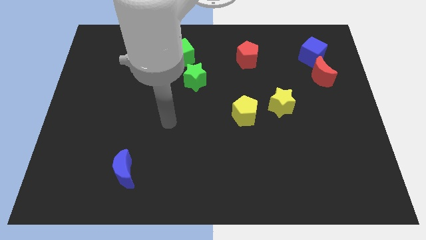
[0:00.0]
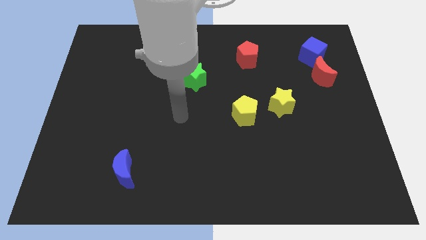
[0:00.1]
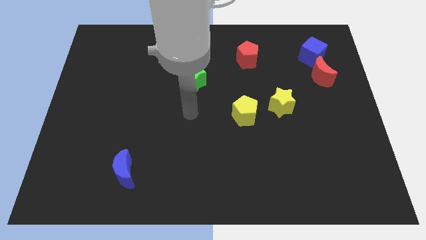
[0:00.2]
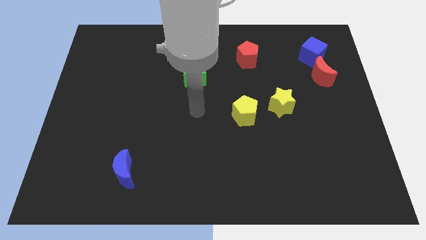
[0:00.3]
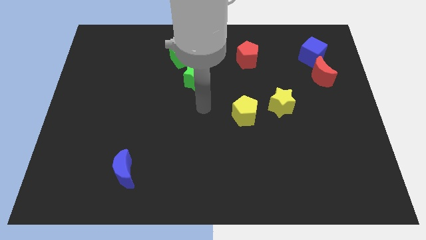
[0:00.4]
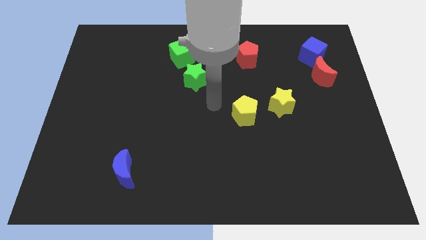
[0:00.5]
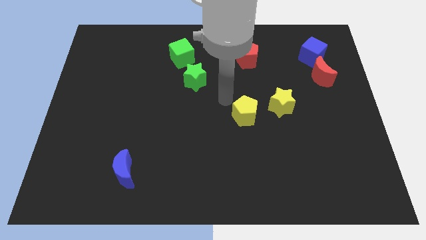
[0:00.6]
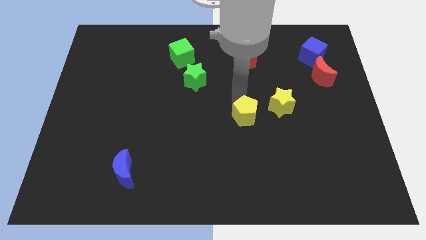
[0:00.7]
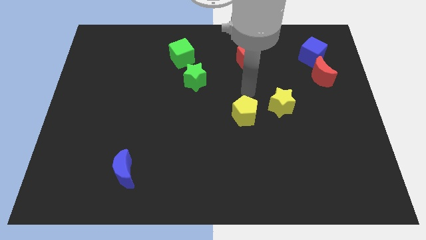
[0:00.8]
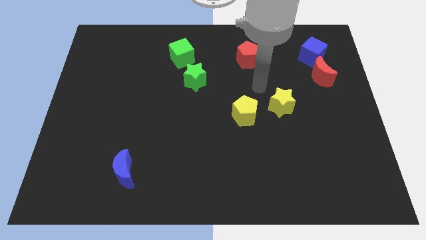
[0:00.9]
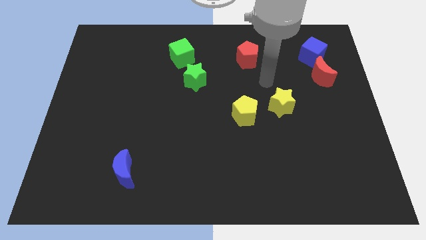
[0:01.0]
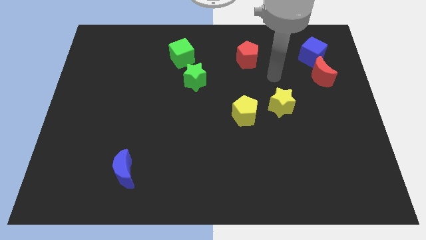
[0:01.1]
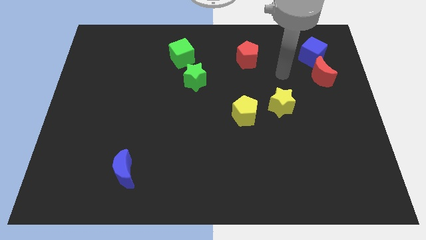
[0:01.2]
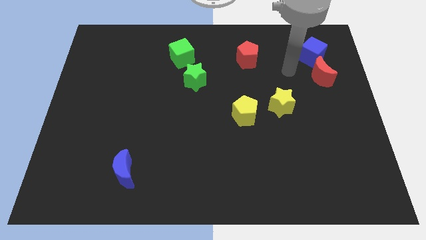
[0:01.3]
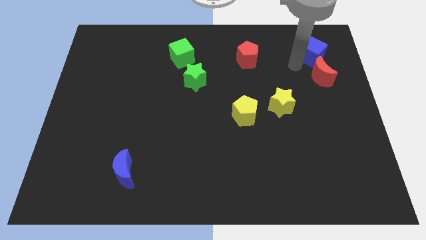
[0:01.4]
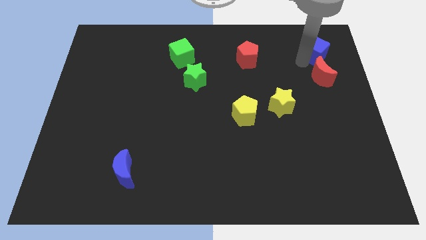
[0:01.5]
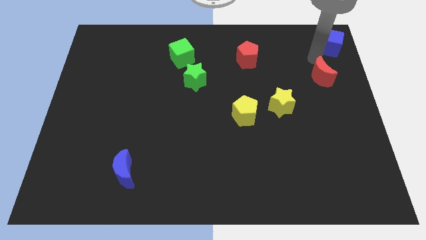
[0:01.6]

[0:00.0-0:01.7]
pull the red moon apart from the blue cube

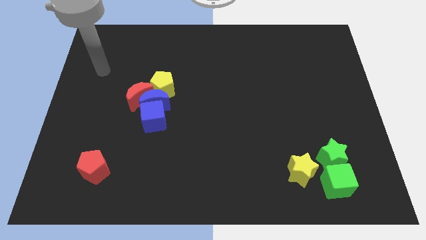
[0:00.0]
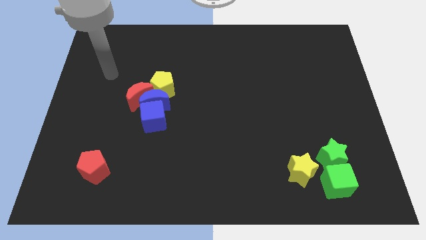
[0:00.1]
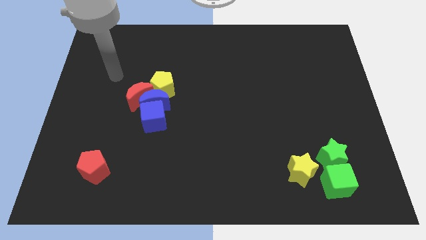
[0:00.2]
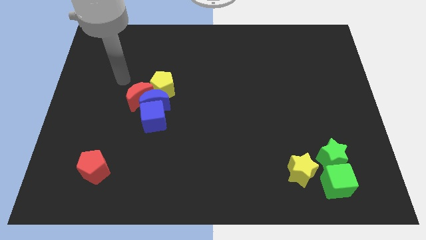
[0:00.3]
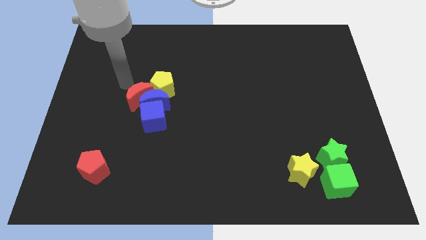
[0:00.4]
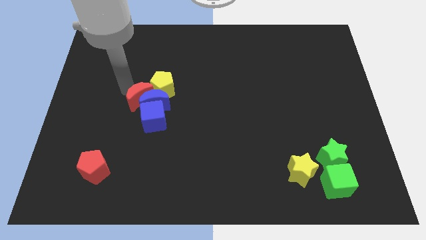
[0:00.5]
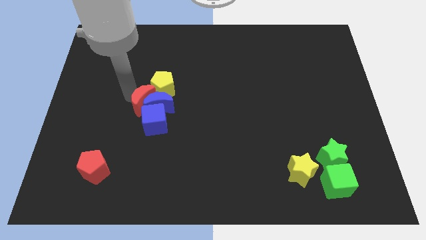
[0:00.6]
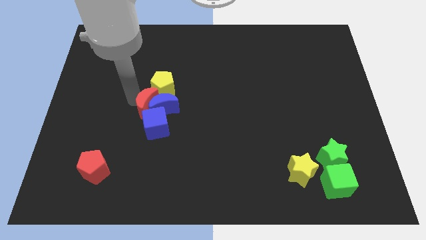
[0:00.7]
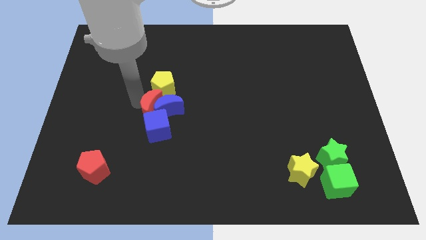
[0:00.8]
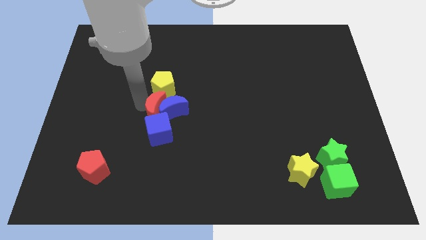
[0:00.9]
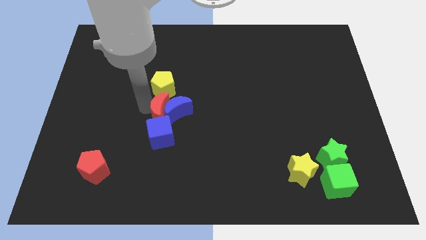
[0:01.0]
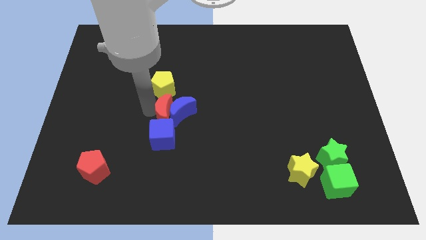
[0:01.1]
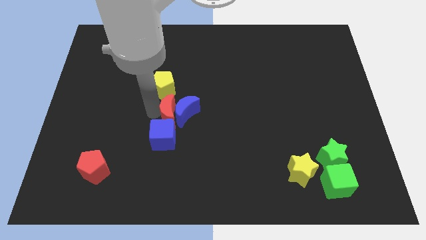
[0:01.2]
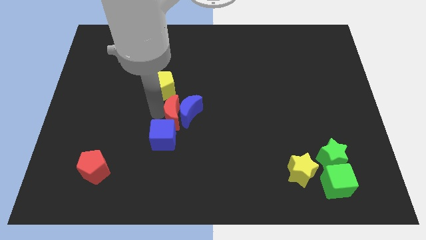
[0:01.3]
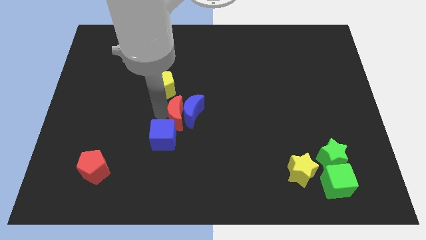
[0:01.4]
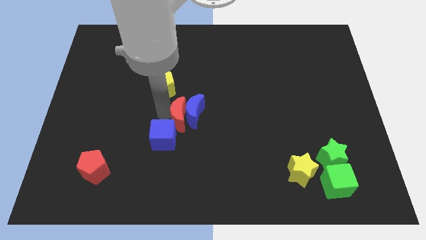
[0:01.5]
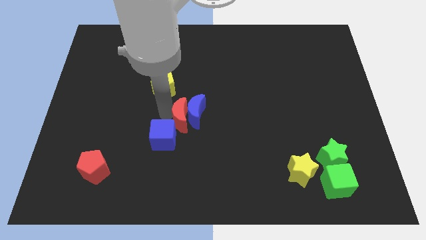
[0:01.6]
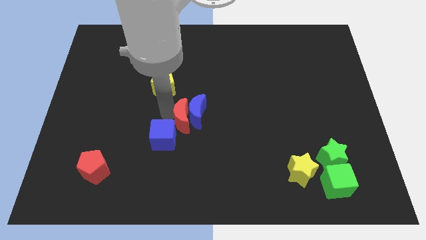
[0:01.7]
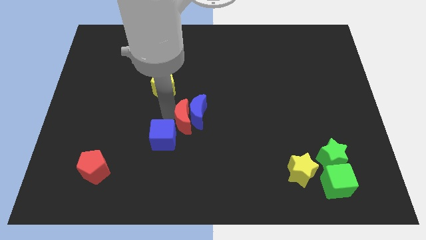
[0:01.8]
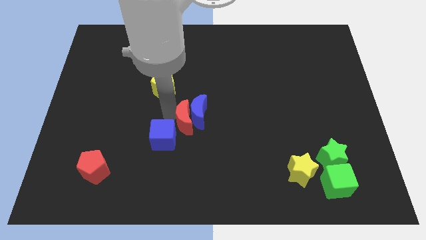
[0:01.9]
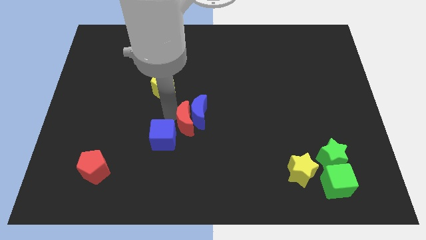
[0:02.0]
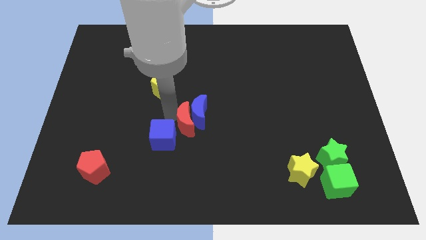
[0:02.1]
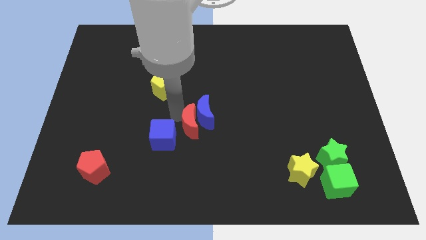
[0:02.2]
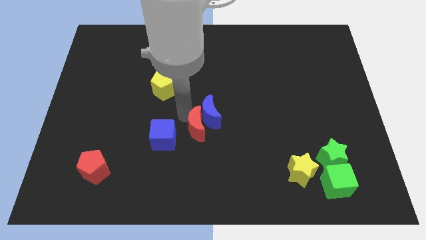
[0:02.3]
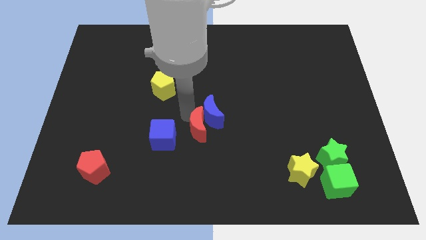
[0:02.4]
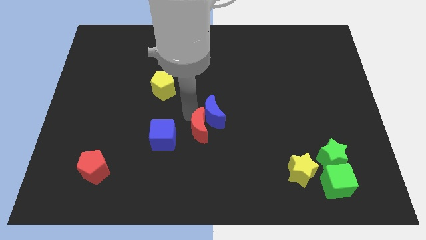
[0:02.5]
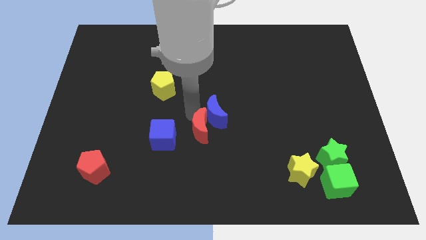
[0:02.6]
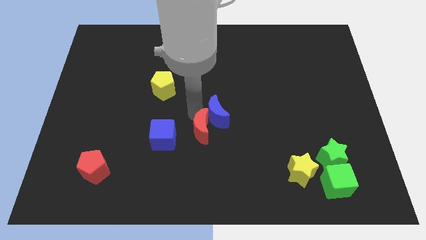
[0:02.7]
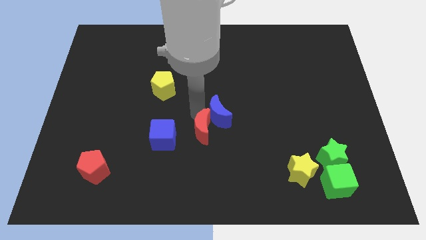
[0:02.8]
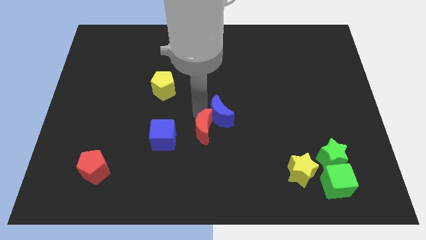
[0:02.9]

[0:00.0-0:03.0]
pull the blue moon apart from the group

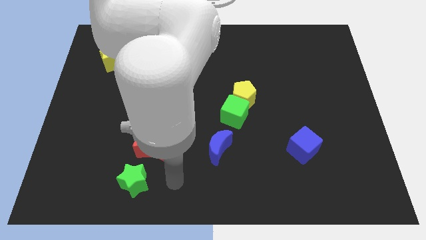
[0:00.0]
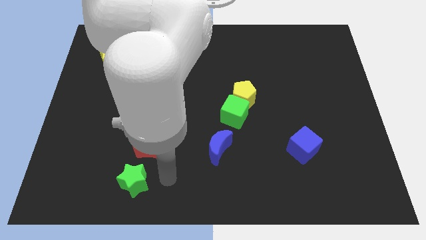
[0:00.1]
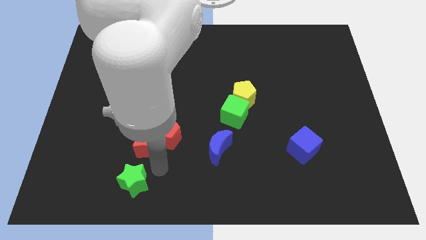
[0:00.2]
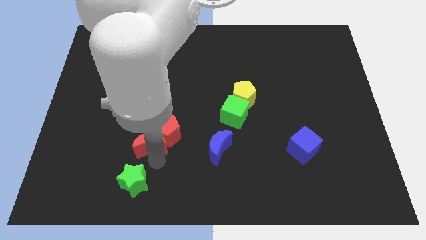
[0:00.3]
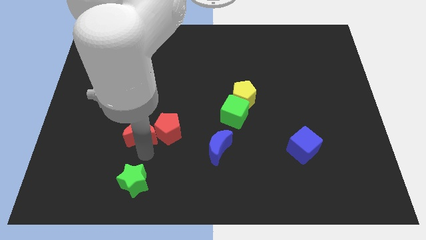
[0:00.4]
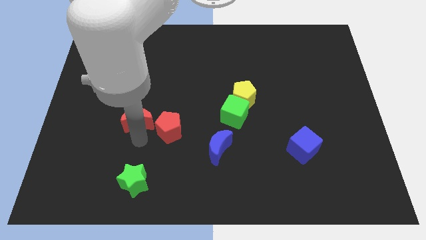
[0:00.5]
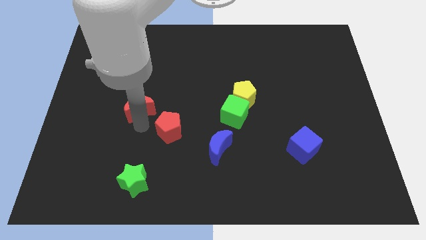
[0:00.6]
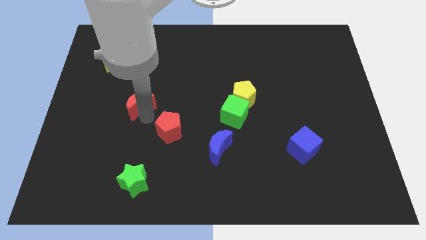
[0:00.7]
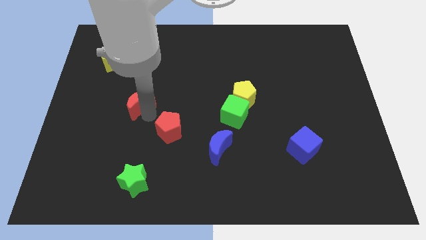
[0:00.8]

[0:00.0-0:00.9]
move the red pentagon away from the red moon

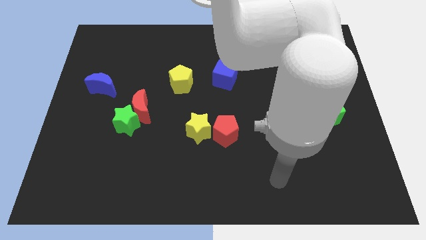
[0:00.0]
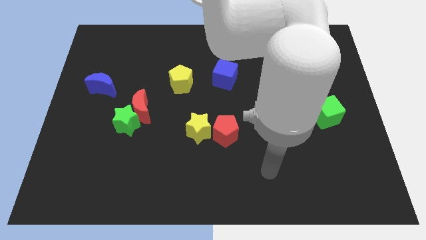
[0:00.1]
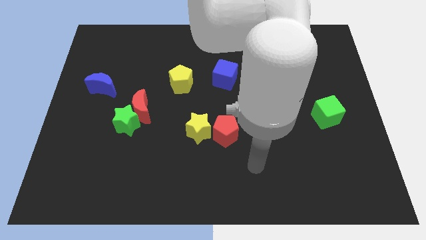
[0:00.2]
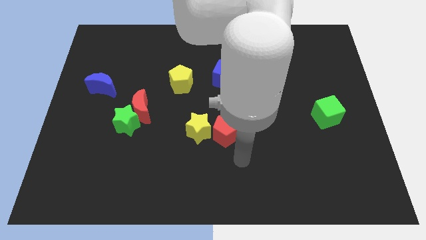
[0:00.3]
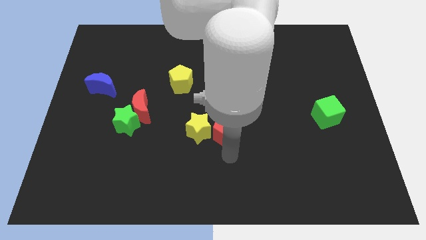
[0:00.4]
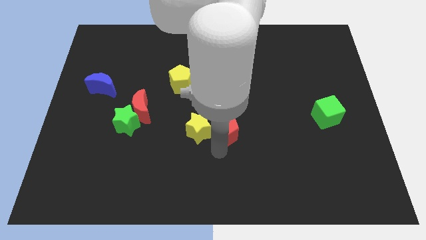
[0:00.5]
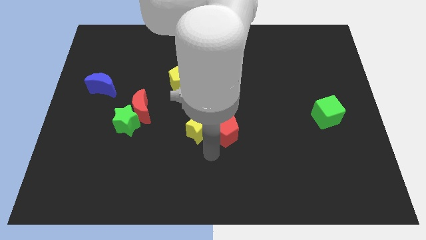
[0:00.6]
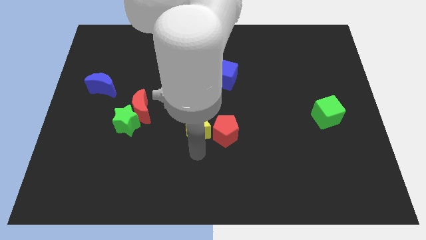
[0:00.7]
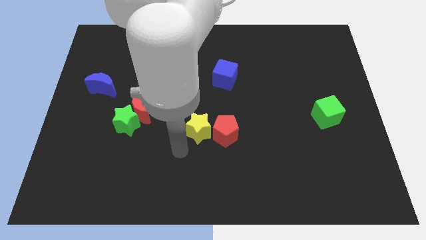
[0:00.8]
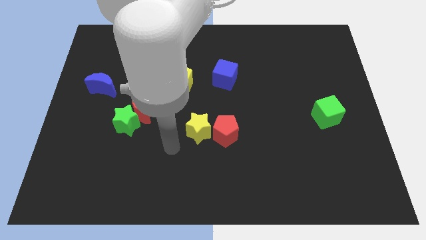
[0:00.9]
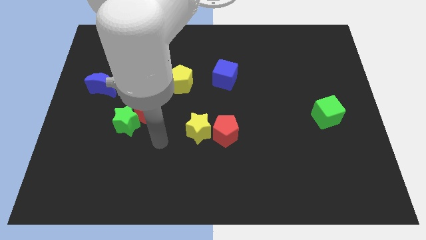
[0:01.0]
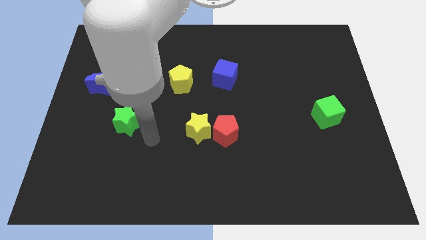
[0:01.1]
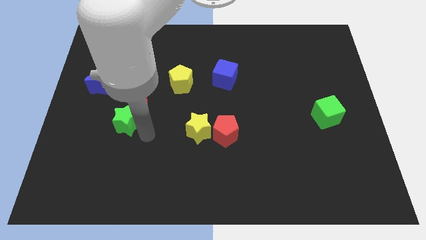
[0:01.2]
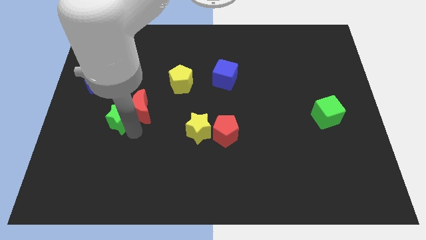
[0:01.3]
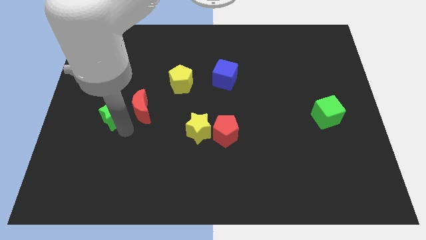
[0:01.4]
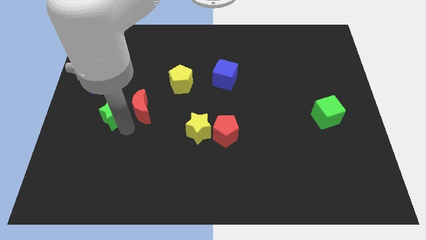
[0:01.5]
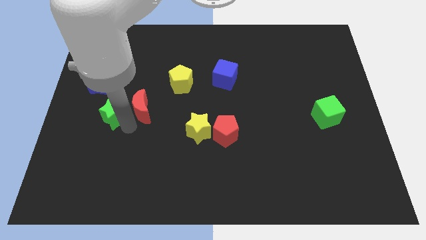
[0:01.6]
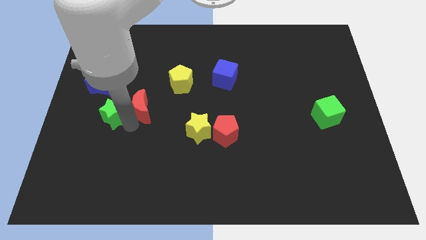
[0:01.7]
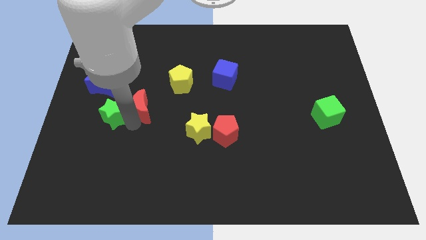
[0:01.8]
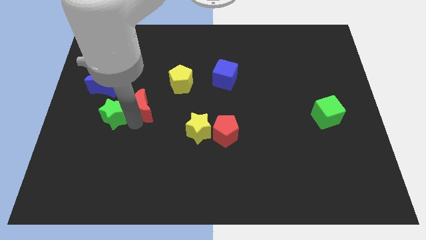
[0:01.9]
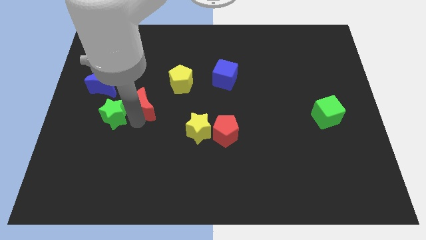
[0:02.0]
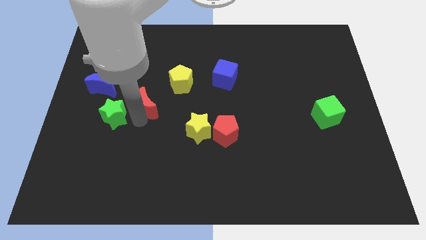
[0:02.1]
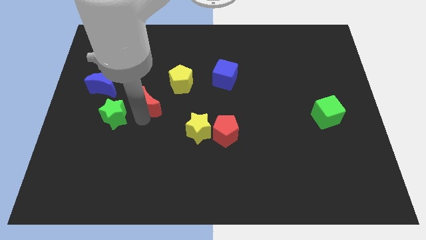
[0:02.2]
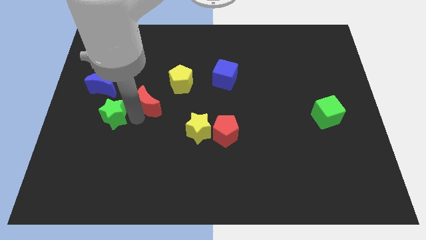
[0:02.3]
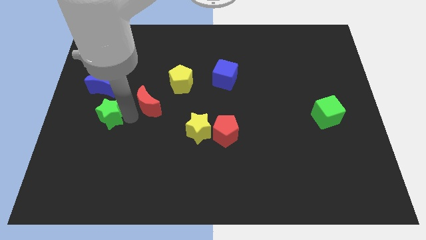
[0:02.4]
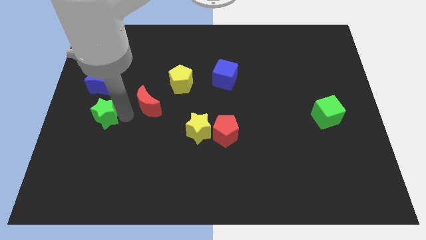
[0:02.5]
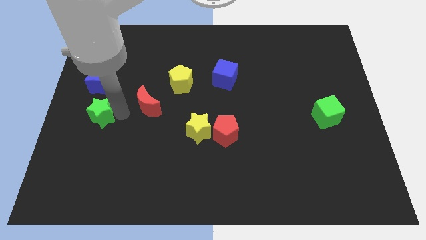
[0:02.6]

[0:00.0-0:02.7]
pull the red moon apart from the green star

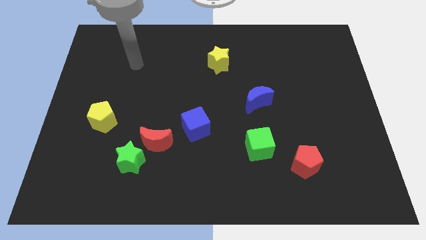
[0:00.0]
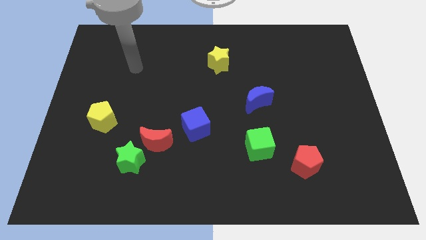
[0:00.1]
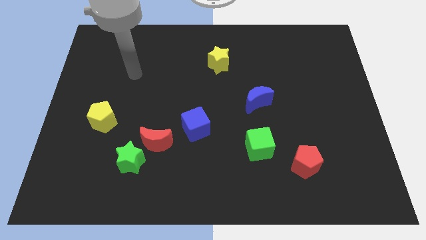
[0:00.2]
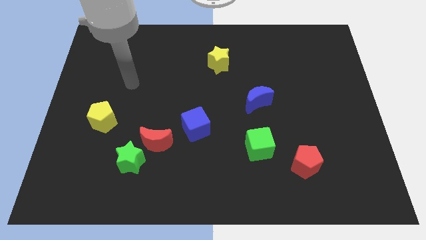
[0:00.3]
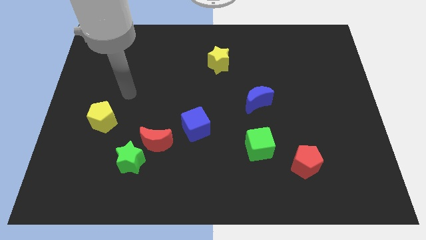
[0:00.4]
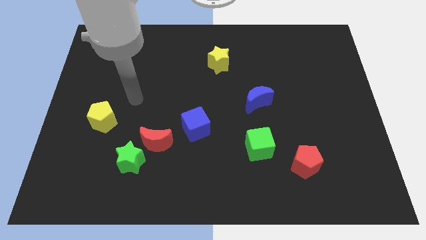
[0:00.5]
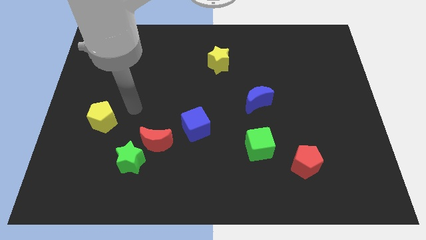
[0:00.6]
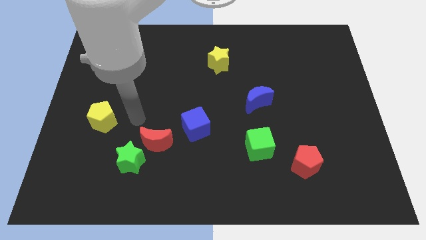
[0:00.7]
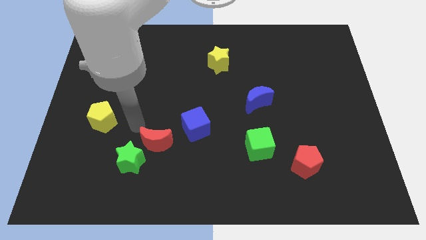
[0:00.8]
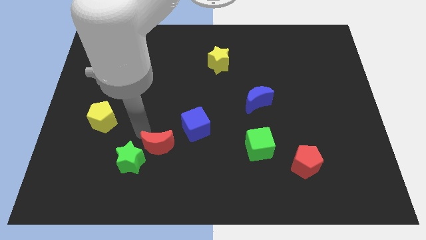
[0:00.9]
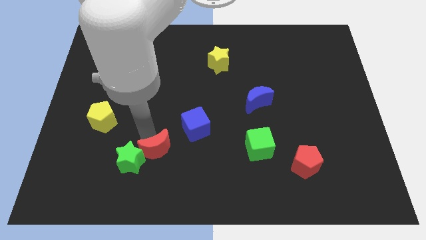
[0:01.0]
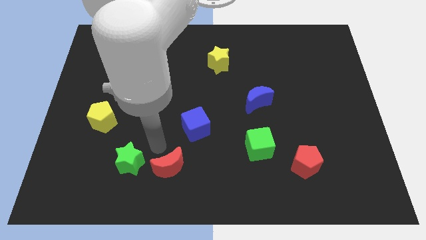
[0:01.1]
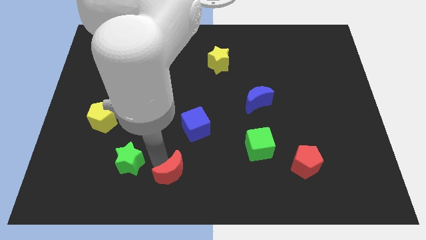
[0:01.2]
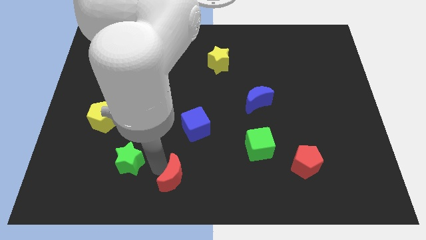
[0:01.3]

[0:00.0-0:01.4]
pull the green star apart from the red moon
